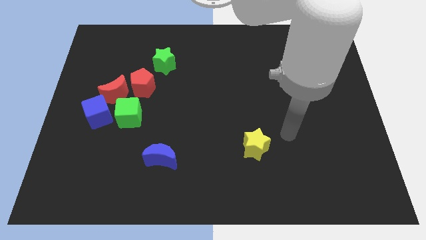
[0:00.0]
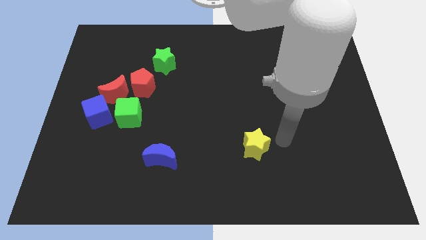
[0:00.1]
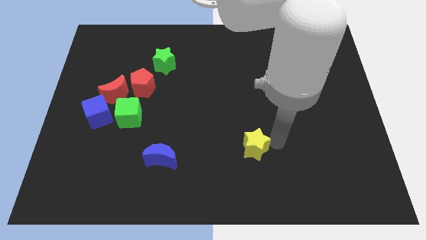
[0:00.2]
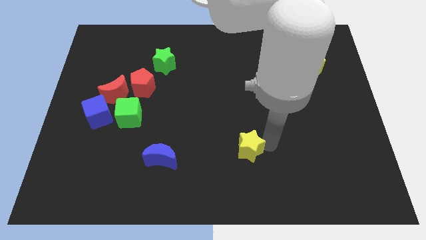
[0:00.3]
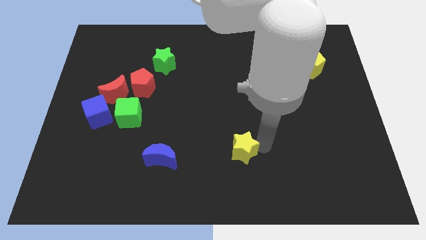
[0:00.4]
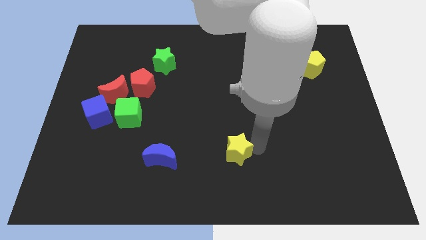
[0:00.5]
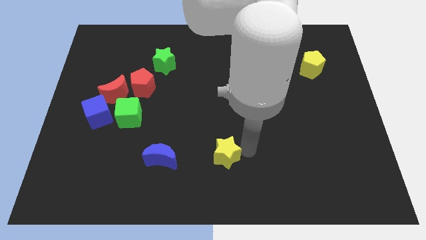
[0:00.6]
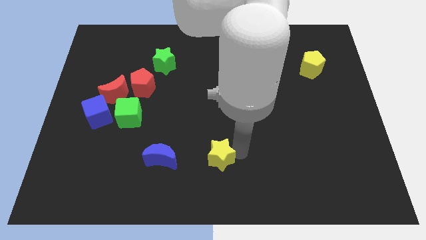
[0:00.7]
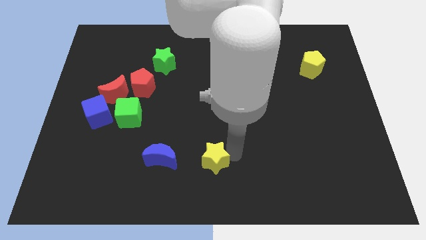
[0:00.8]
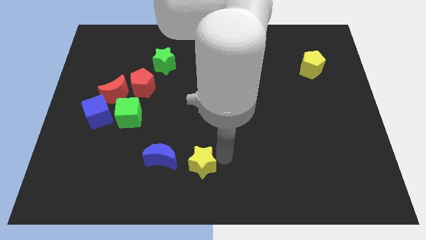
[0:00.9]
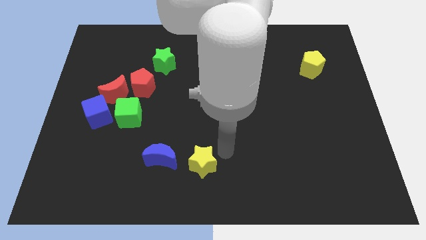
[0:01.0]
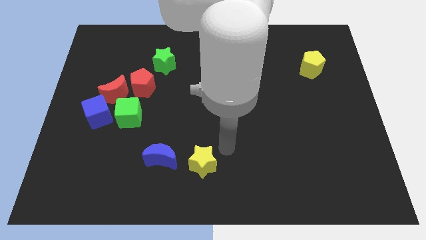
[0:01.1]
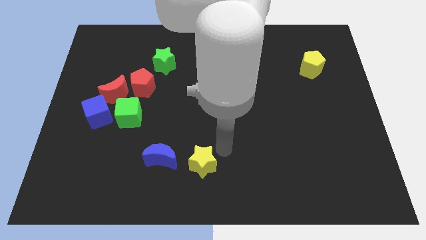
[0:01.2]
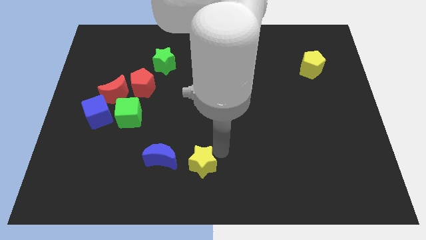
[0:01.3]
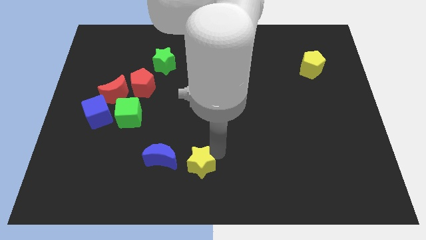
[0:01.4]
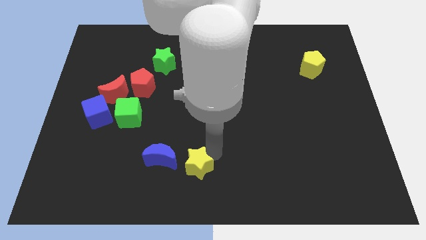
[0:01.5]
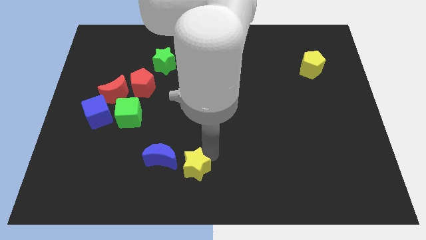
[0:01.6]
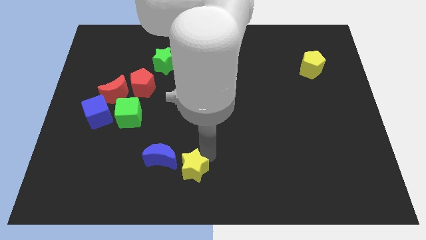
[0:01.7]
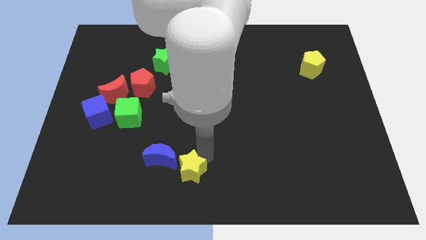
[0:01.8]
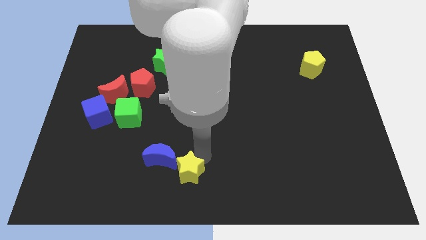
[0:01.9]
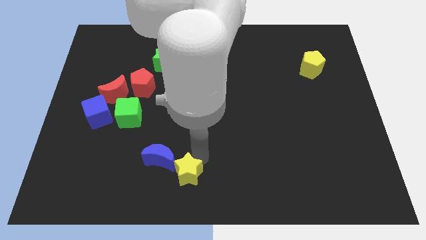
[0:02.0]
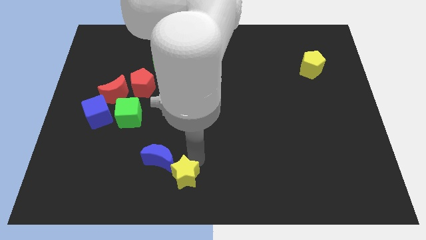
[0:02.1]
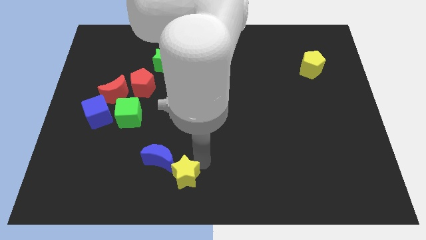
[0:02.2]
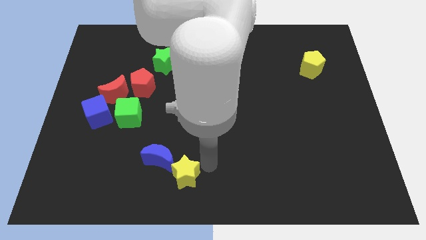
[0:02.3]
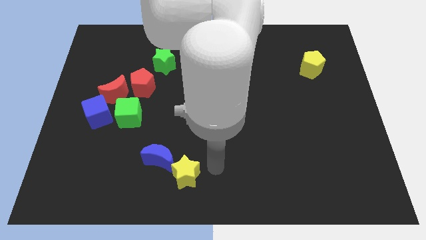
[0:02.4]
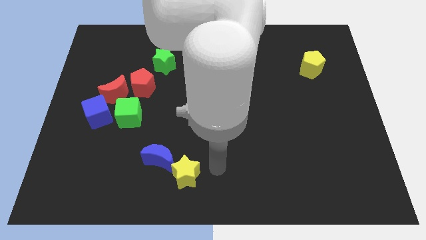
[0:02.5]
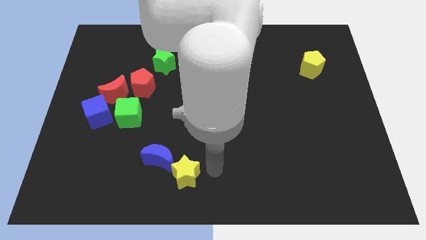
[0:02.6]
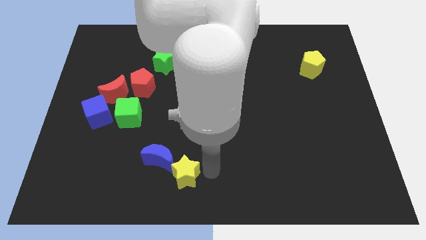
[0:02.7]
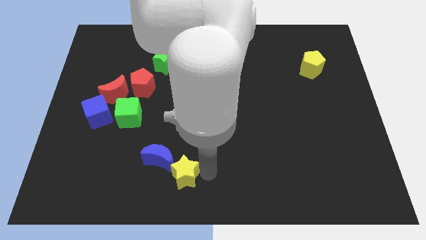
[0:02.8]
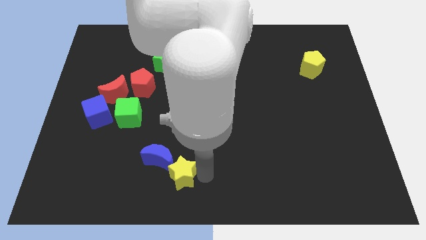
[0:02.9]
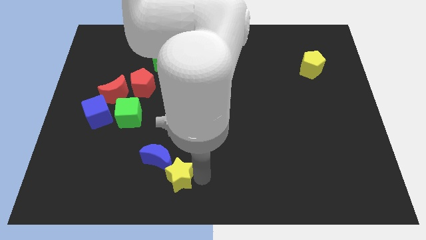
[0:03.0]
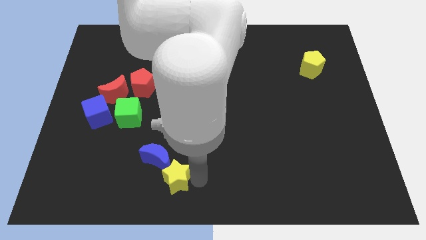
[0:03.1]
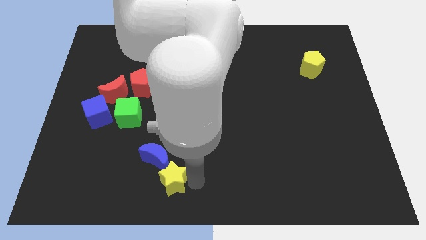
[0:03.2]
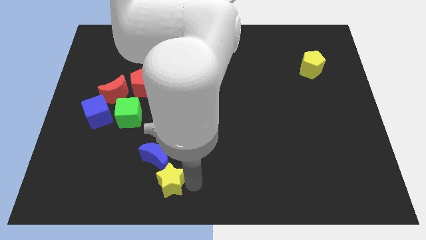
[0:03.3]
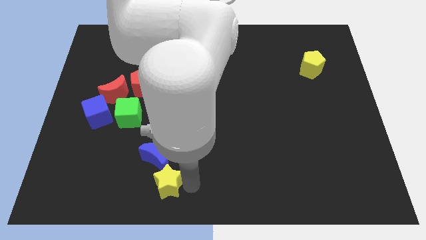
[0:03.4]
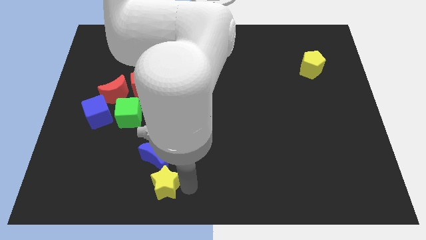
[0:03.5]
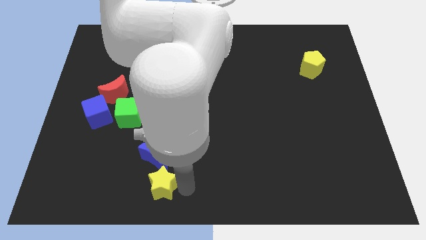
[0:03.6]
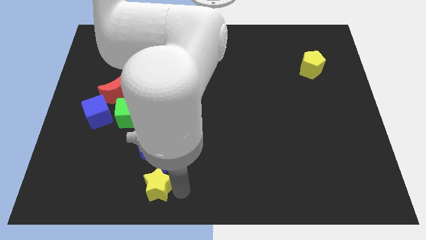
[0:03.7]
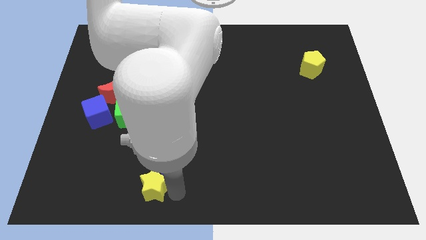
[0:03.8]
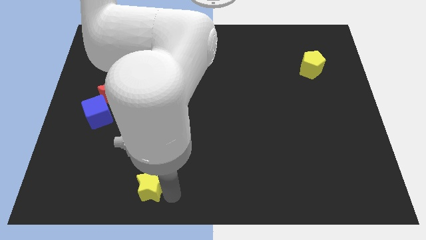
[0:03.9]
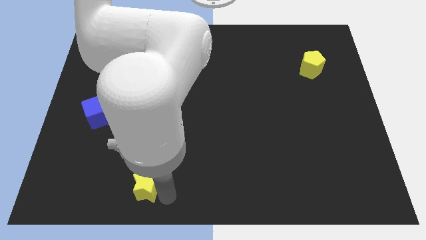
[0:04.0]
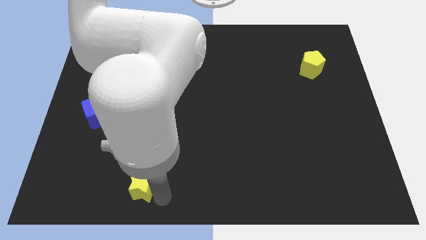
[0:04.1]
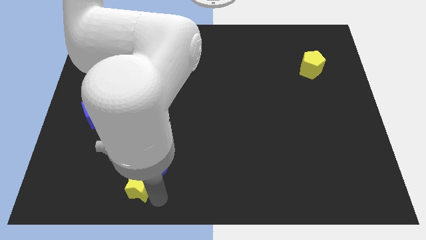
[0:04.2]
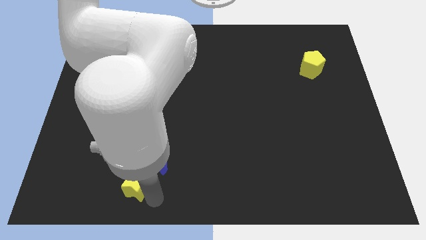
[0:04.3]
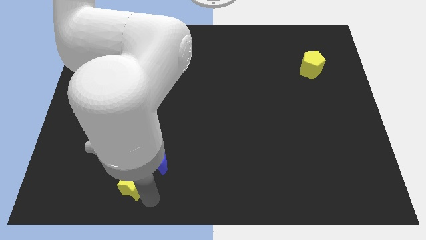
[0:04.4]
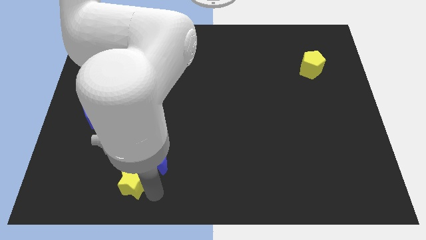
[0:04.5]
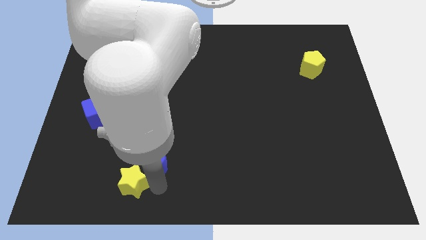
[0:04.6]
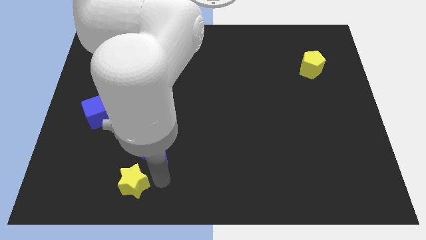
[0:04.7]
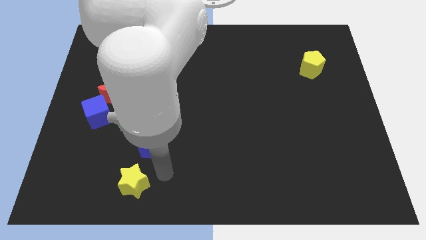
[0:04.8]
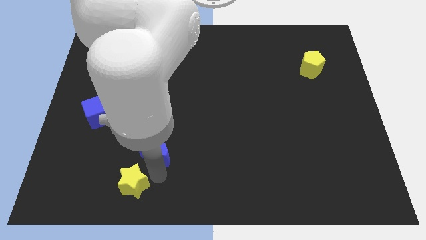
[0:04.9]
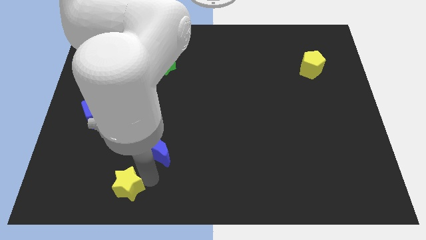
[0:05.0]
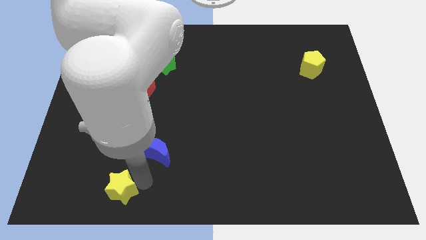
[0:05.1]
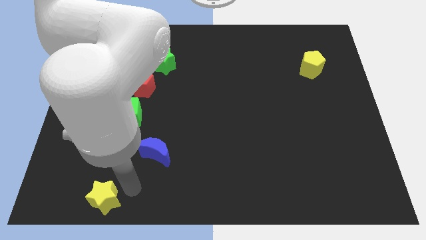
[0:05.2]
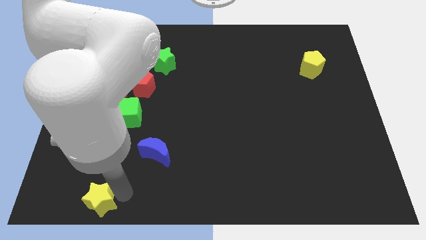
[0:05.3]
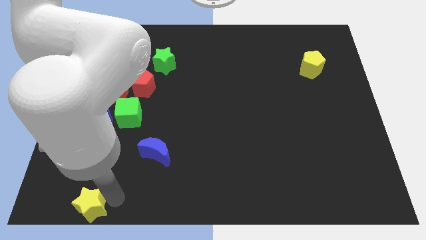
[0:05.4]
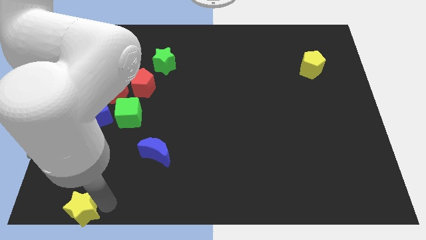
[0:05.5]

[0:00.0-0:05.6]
slide the yellow star to the bottom left corner
